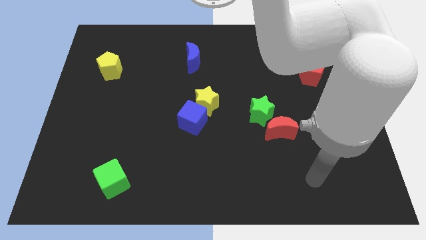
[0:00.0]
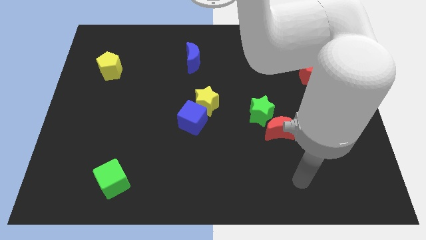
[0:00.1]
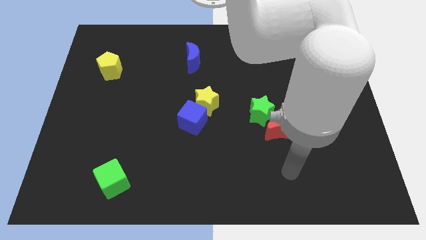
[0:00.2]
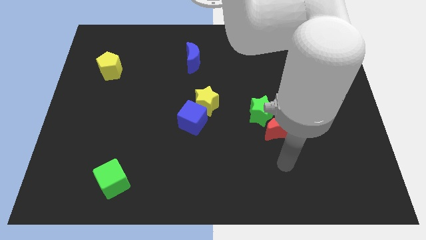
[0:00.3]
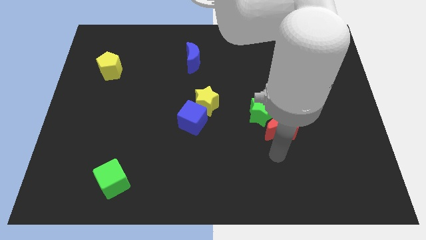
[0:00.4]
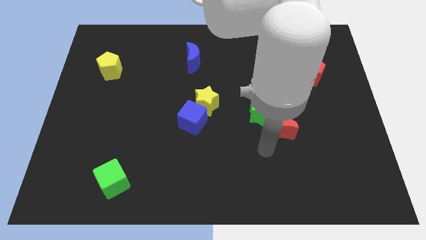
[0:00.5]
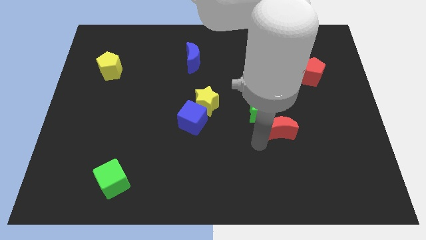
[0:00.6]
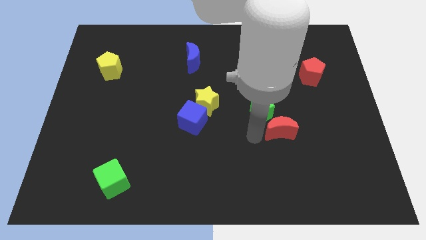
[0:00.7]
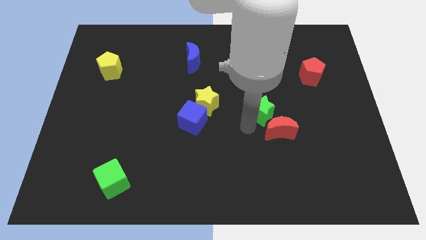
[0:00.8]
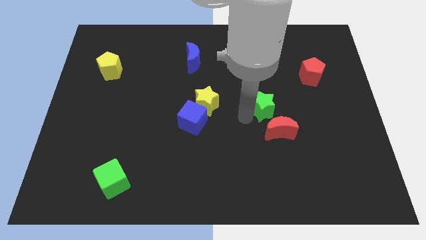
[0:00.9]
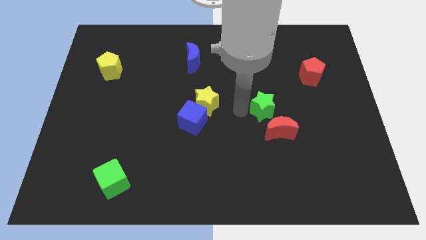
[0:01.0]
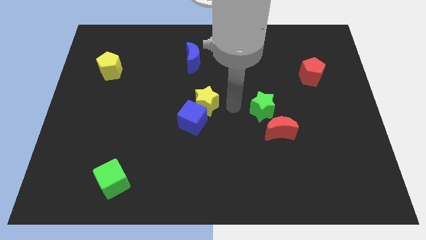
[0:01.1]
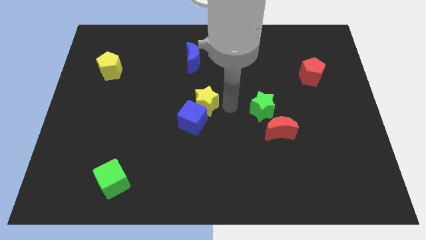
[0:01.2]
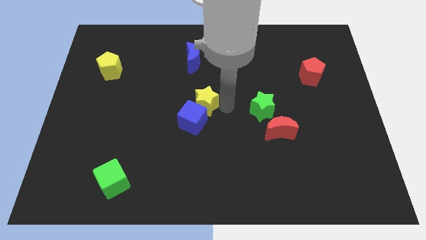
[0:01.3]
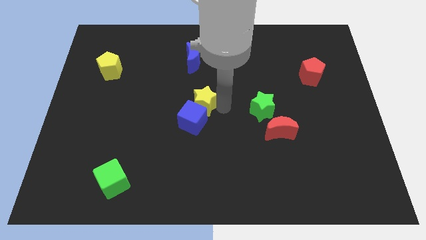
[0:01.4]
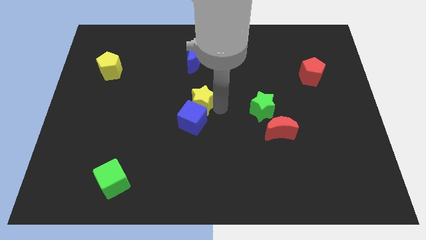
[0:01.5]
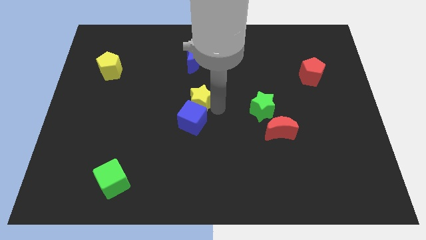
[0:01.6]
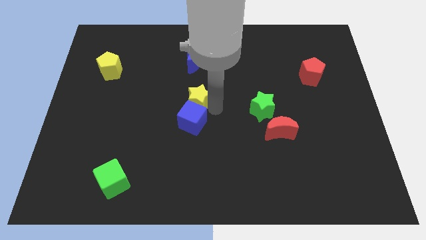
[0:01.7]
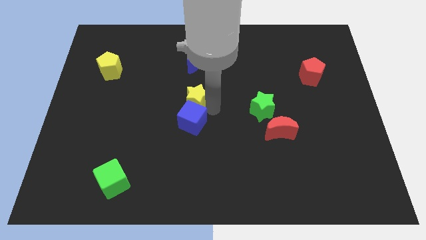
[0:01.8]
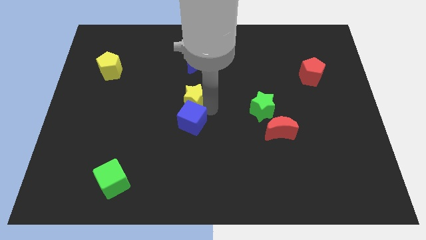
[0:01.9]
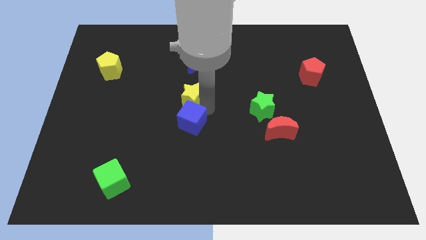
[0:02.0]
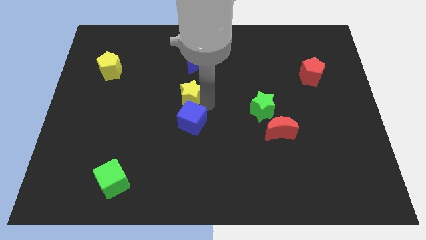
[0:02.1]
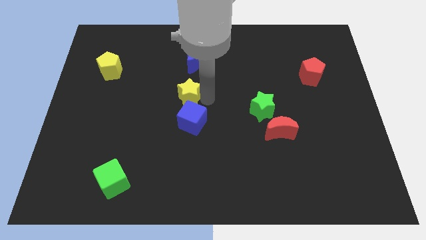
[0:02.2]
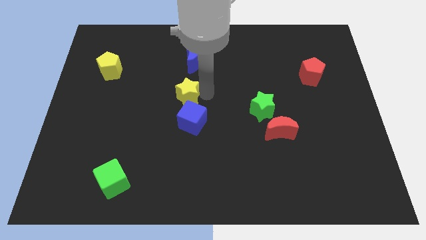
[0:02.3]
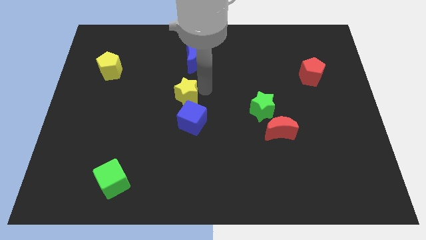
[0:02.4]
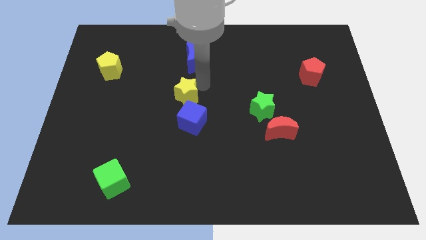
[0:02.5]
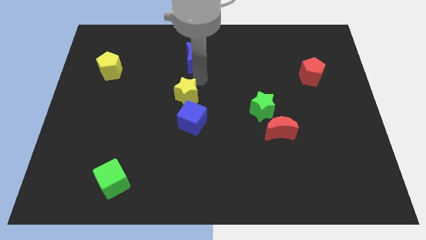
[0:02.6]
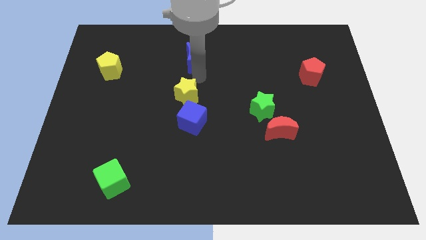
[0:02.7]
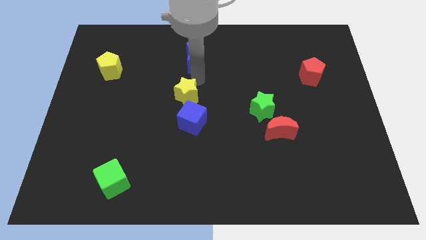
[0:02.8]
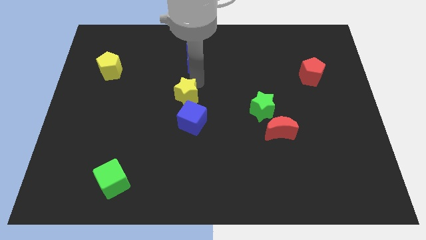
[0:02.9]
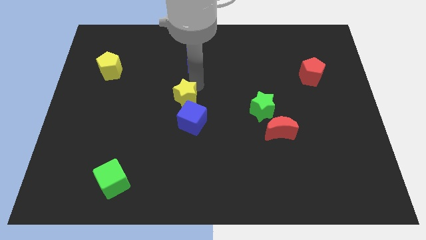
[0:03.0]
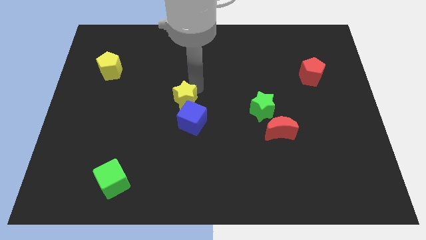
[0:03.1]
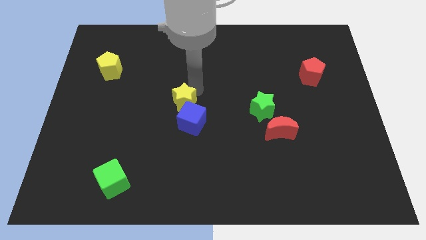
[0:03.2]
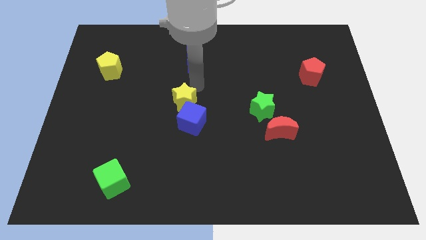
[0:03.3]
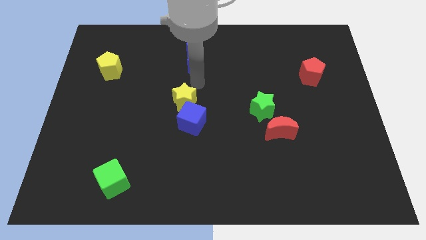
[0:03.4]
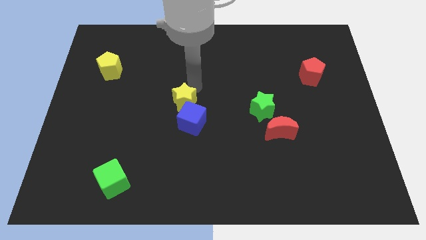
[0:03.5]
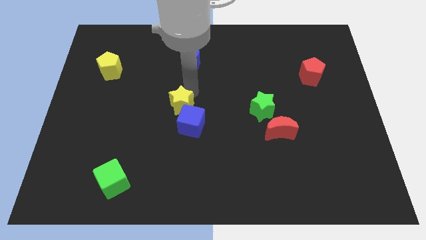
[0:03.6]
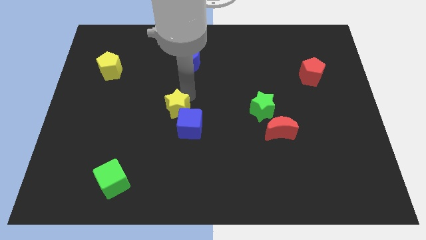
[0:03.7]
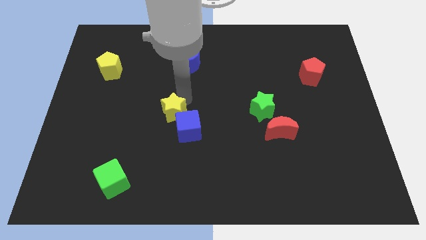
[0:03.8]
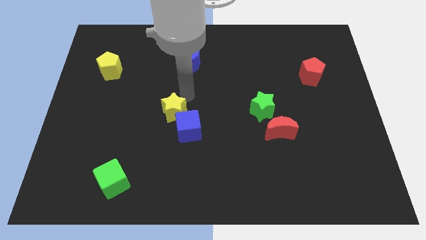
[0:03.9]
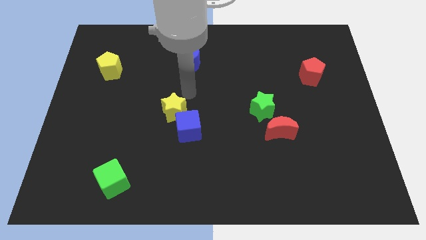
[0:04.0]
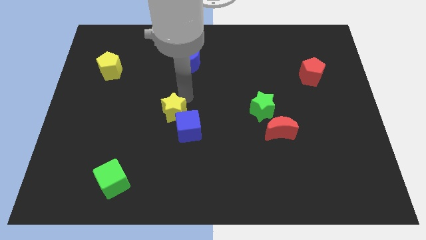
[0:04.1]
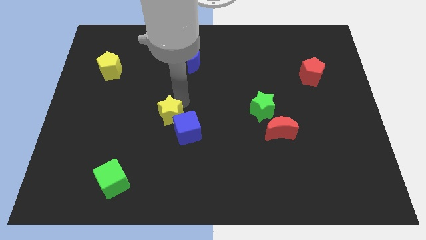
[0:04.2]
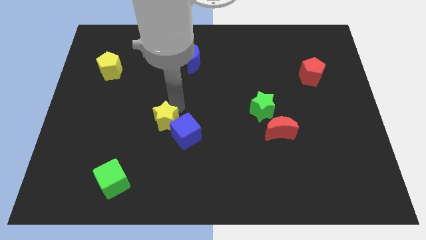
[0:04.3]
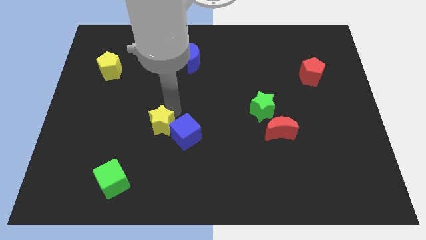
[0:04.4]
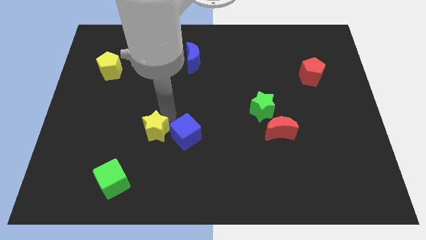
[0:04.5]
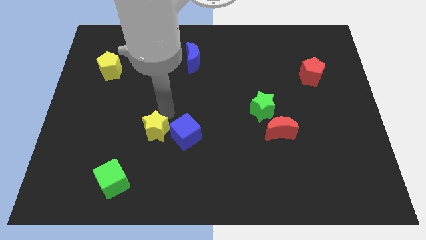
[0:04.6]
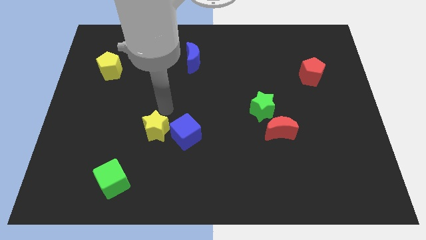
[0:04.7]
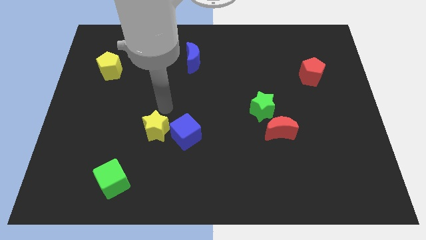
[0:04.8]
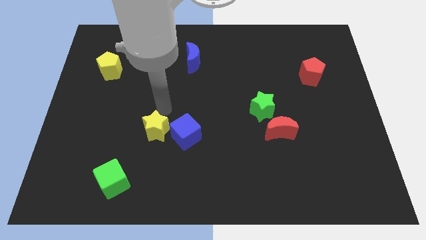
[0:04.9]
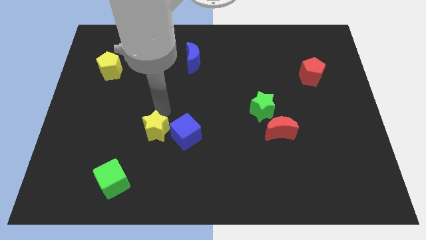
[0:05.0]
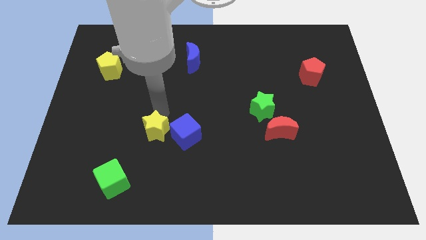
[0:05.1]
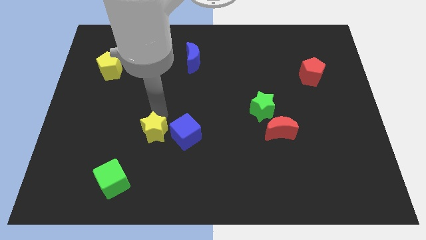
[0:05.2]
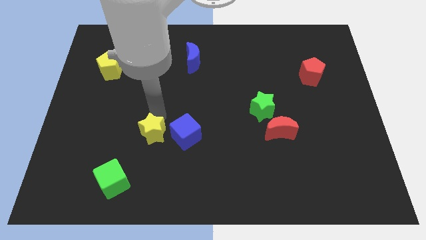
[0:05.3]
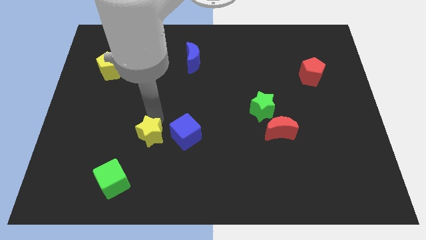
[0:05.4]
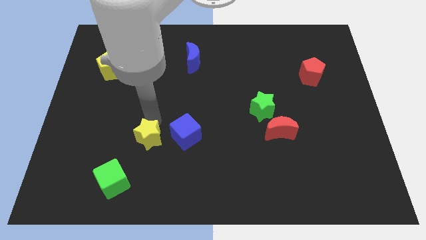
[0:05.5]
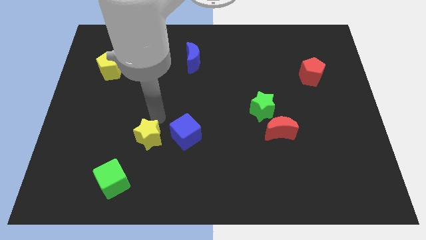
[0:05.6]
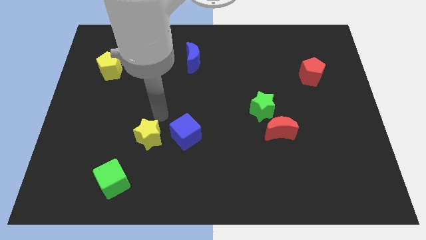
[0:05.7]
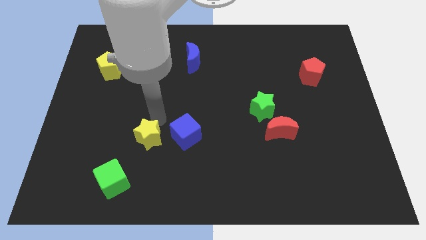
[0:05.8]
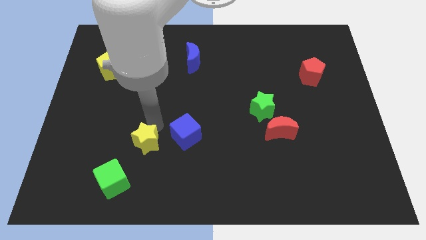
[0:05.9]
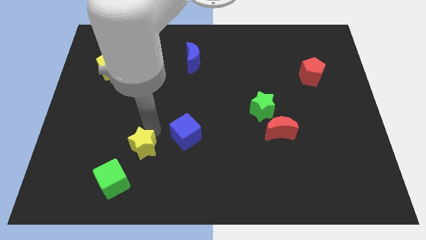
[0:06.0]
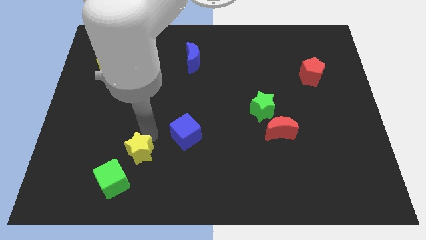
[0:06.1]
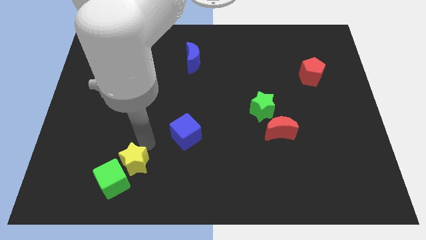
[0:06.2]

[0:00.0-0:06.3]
put the yellow star towards the green cube

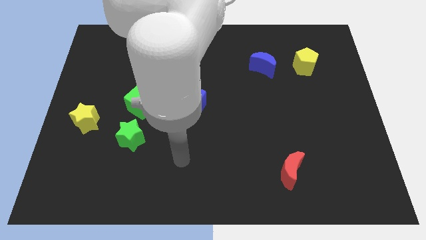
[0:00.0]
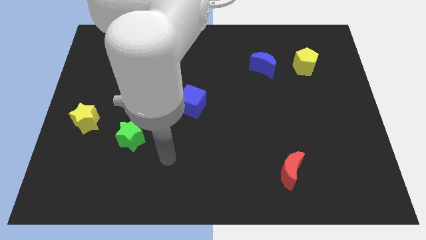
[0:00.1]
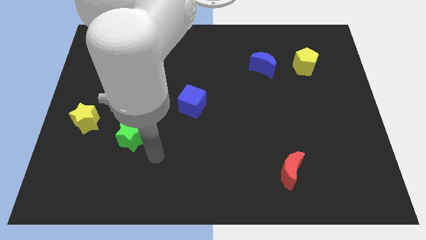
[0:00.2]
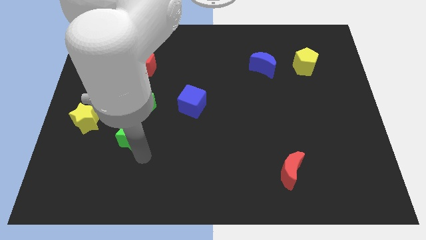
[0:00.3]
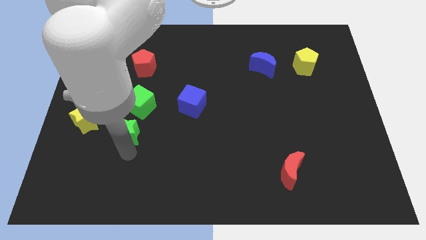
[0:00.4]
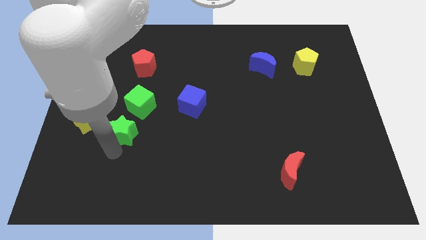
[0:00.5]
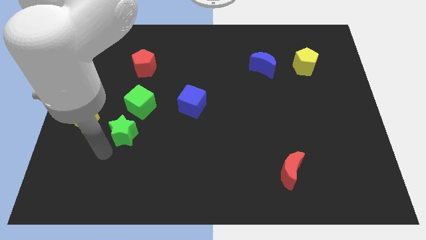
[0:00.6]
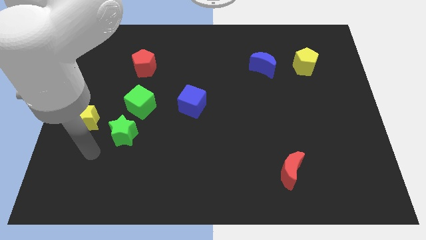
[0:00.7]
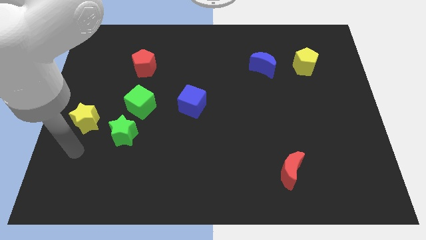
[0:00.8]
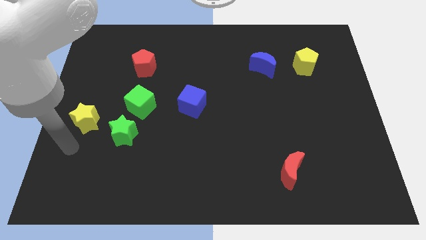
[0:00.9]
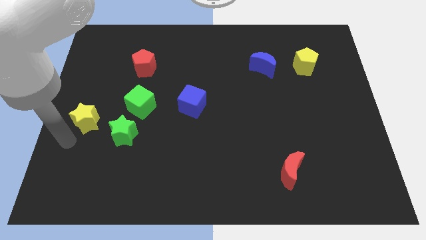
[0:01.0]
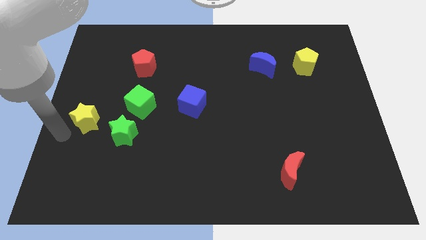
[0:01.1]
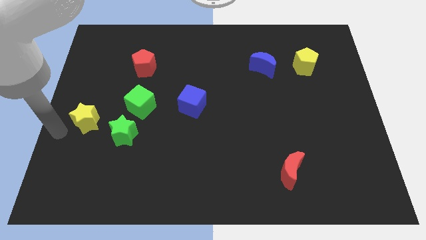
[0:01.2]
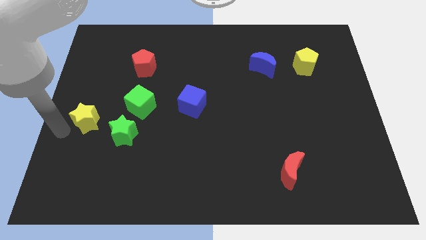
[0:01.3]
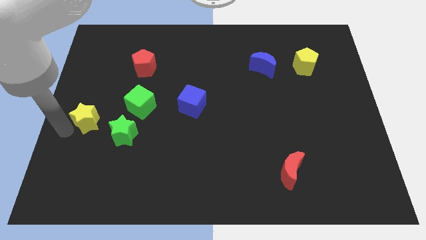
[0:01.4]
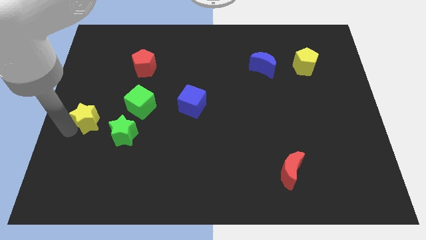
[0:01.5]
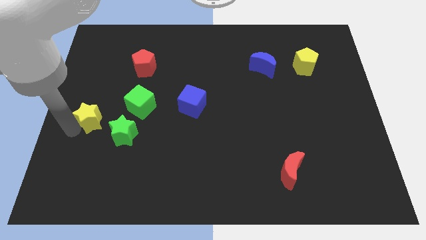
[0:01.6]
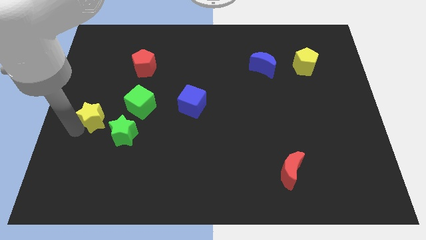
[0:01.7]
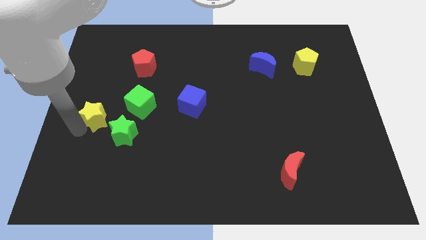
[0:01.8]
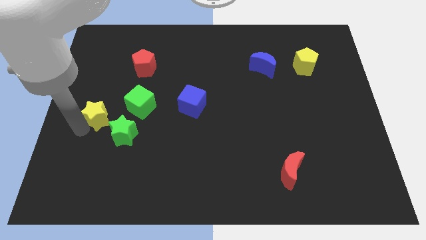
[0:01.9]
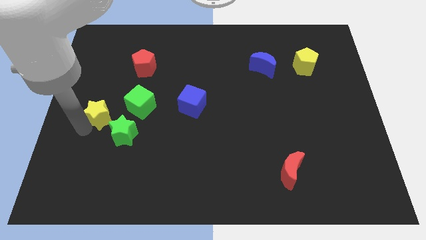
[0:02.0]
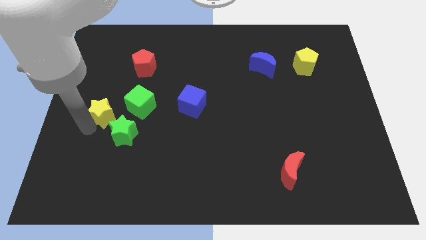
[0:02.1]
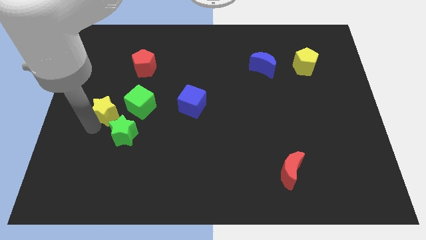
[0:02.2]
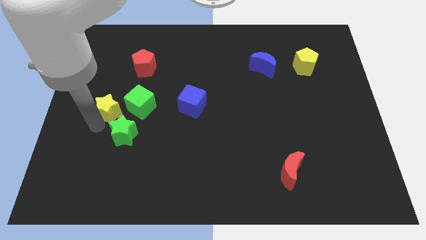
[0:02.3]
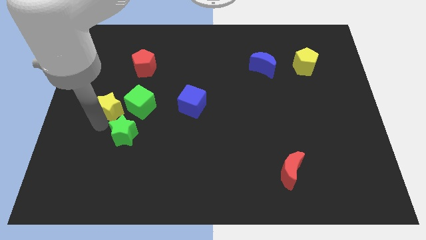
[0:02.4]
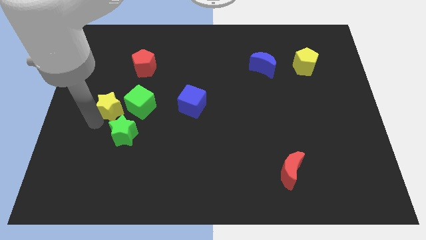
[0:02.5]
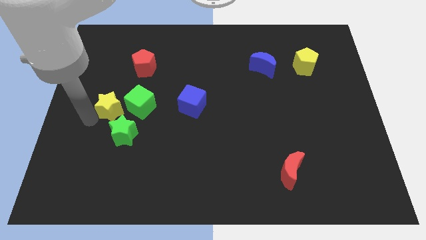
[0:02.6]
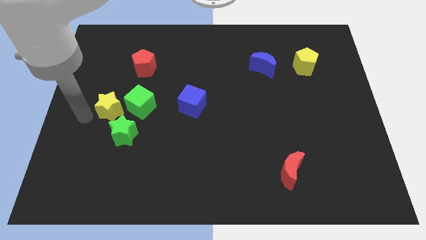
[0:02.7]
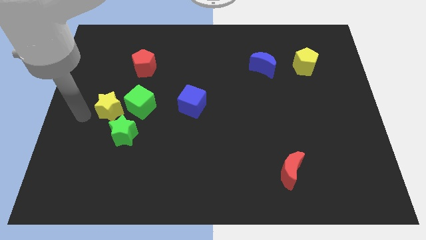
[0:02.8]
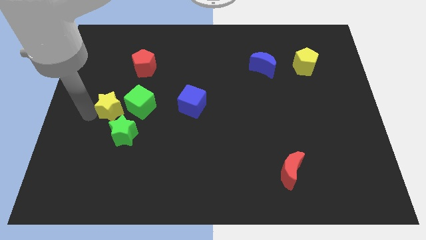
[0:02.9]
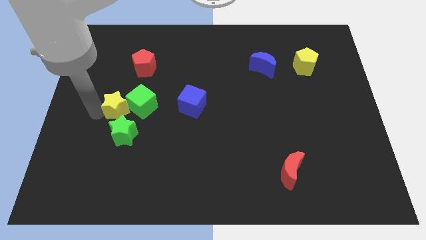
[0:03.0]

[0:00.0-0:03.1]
push the yellow star towards the green cube
